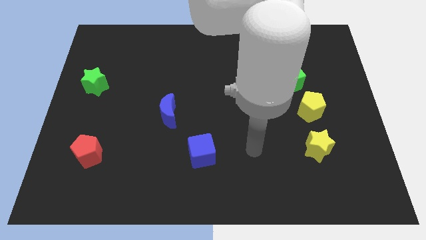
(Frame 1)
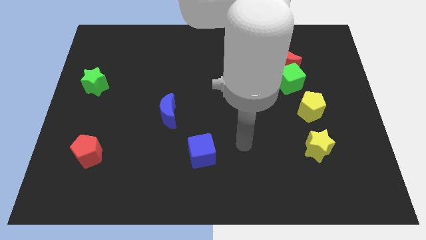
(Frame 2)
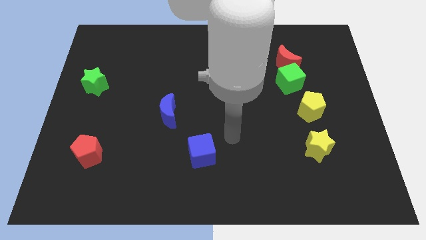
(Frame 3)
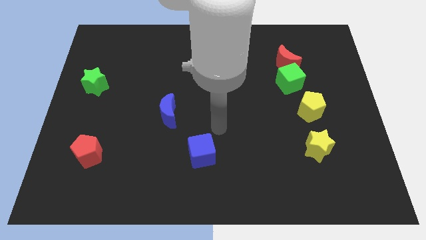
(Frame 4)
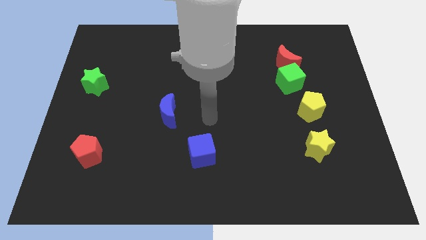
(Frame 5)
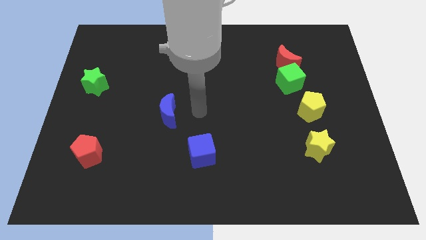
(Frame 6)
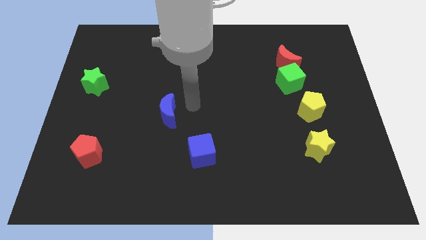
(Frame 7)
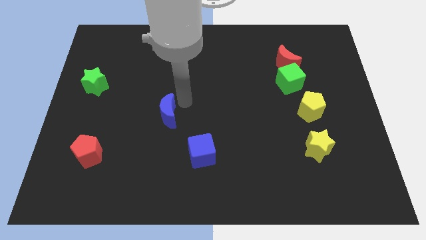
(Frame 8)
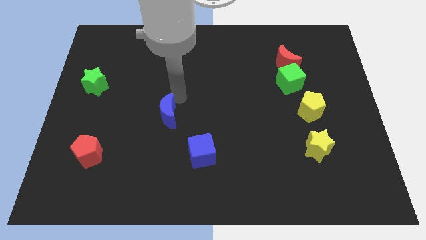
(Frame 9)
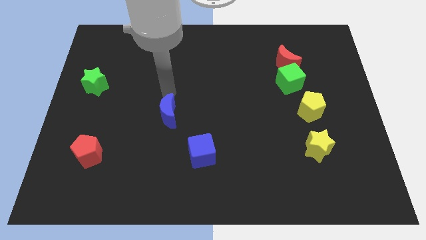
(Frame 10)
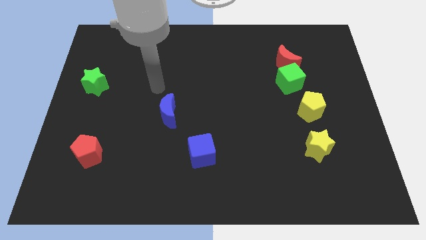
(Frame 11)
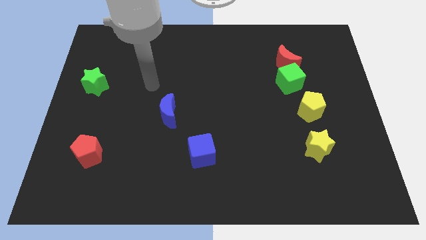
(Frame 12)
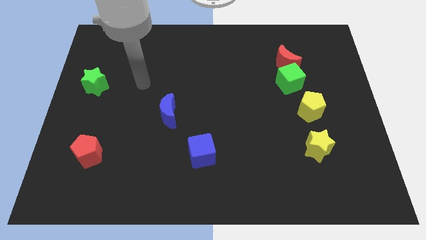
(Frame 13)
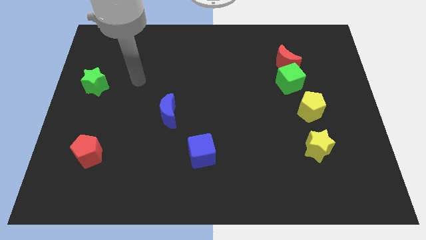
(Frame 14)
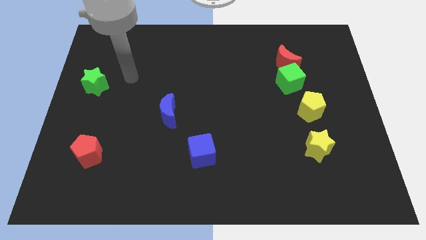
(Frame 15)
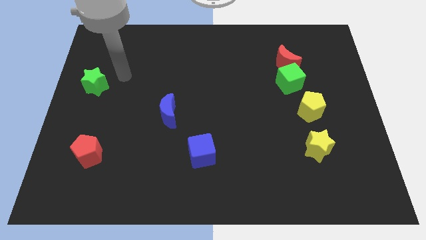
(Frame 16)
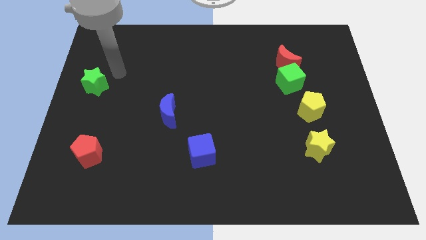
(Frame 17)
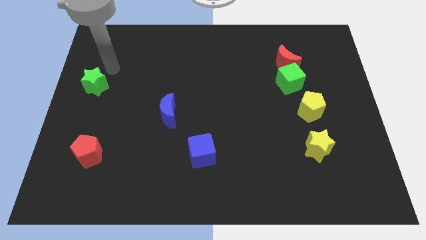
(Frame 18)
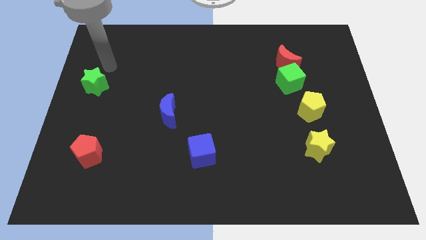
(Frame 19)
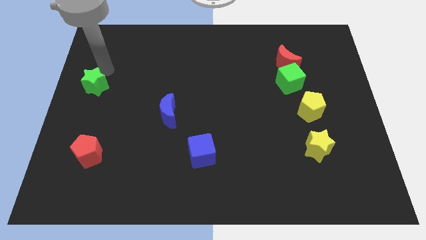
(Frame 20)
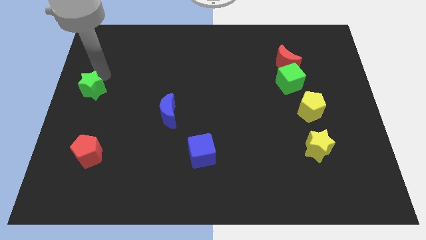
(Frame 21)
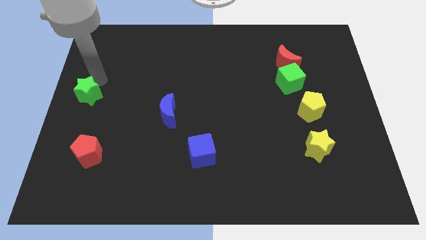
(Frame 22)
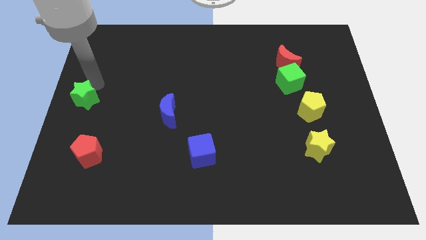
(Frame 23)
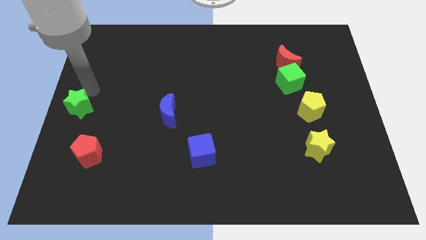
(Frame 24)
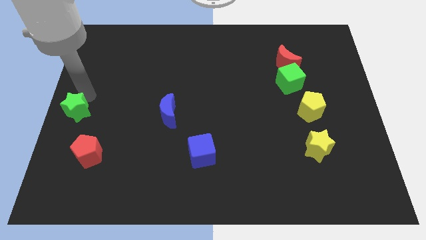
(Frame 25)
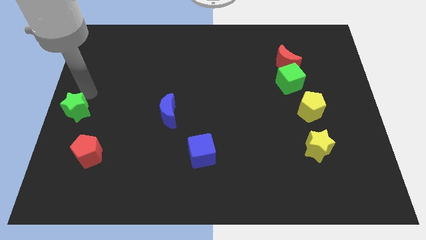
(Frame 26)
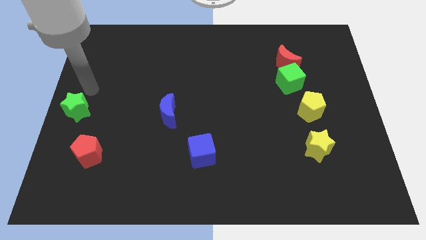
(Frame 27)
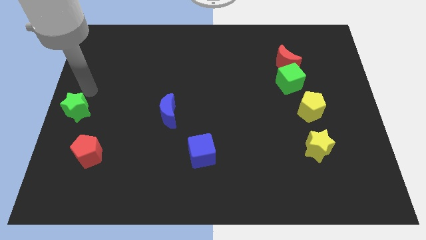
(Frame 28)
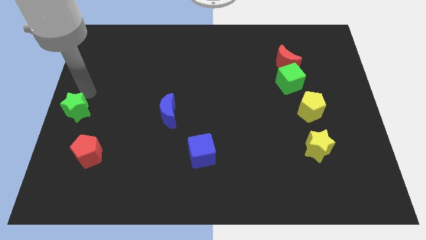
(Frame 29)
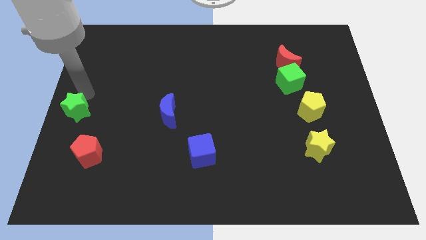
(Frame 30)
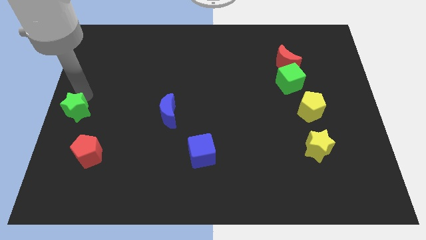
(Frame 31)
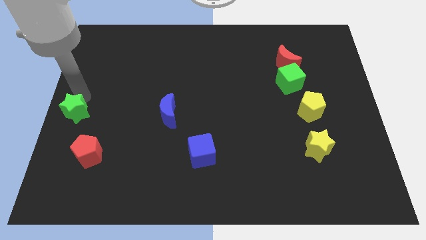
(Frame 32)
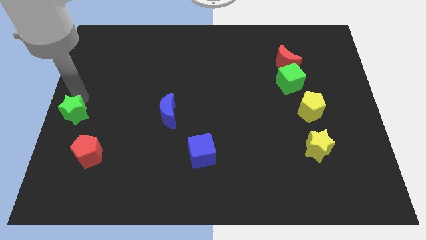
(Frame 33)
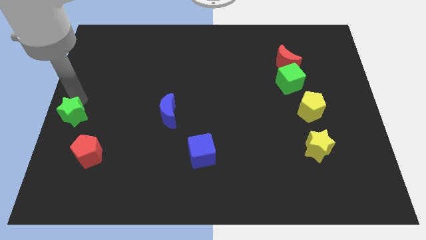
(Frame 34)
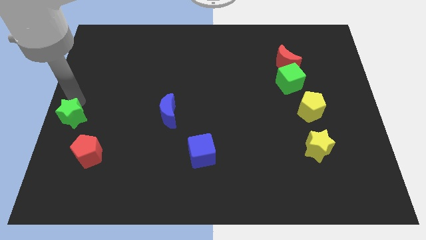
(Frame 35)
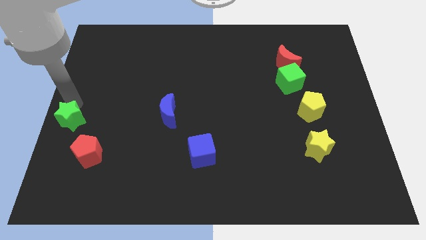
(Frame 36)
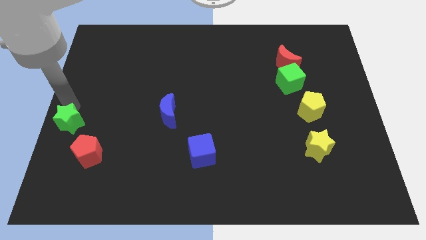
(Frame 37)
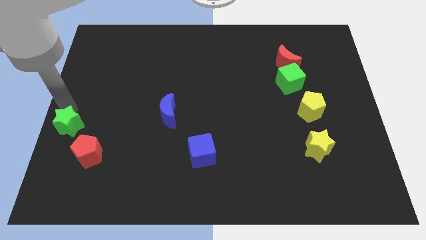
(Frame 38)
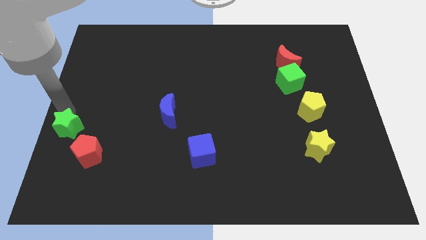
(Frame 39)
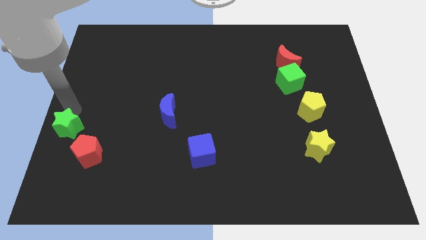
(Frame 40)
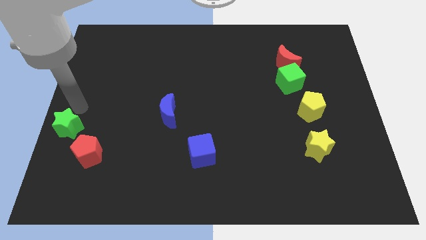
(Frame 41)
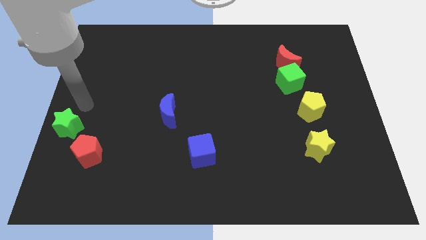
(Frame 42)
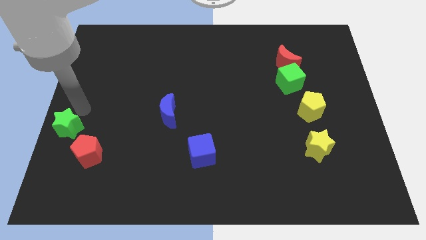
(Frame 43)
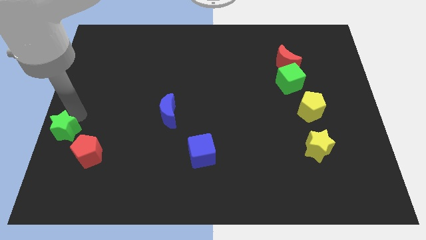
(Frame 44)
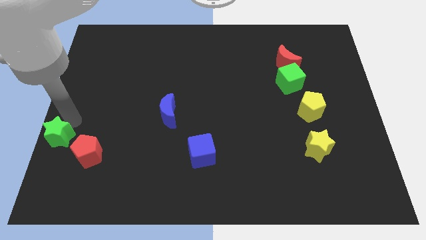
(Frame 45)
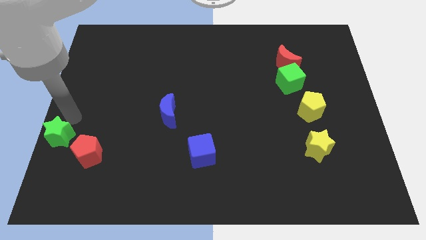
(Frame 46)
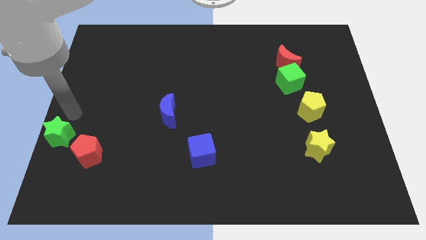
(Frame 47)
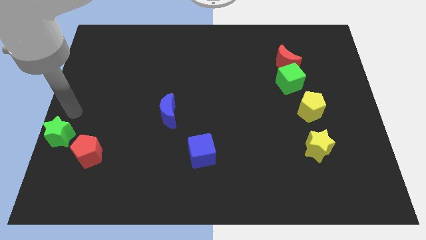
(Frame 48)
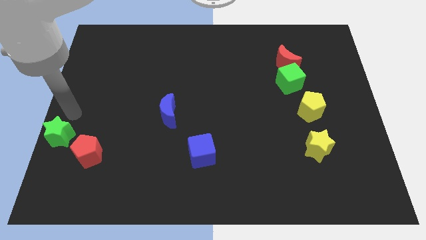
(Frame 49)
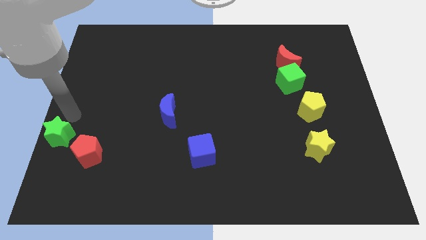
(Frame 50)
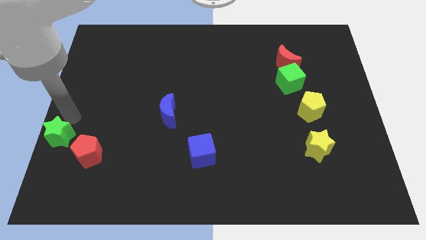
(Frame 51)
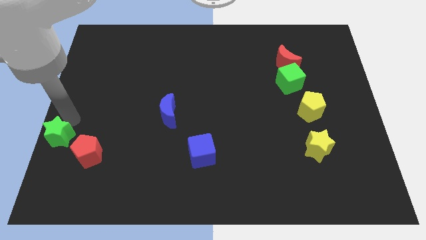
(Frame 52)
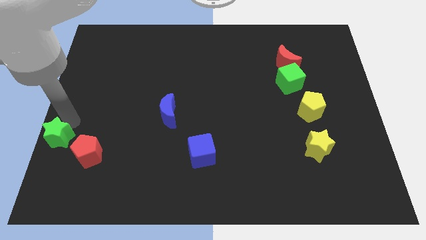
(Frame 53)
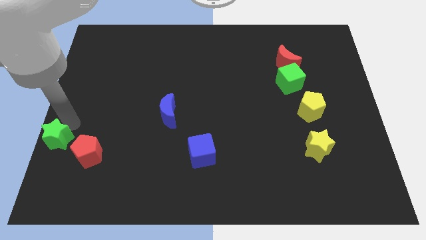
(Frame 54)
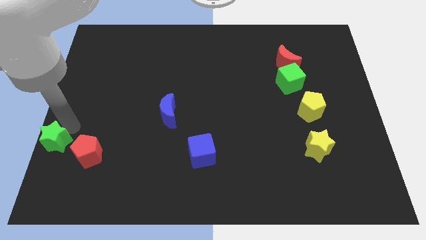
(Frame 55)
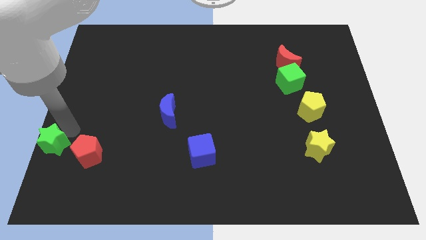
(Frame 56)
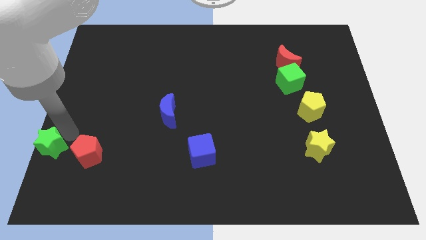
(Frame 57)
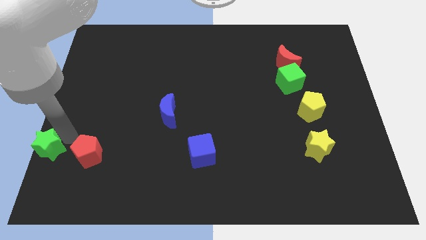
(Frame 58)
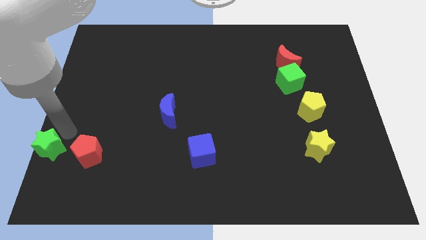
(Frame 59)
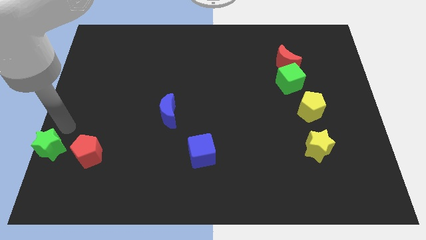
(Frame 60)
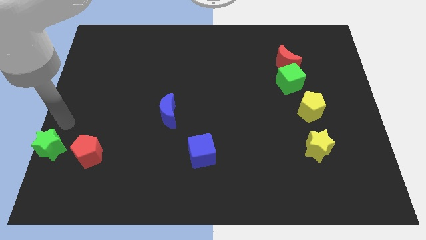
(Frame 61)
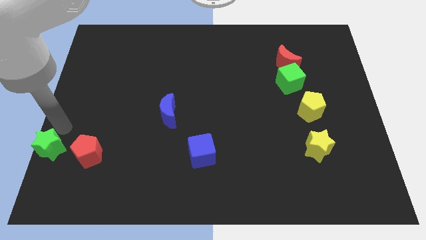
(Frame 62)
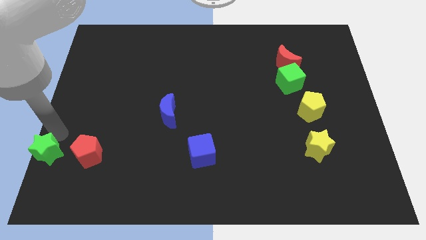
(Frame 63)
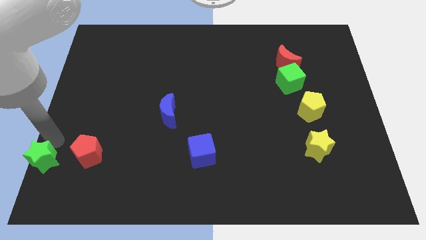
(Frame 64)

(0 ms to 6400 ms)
put the green star to the bottom left corner

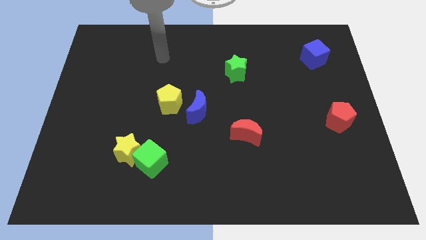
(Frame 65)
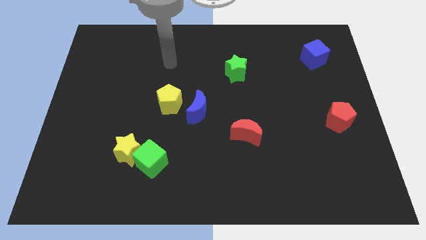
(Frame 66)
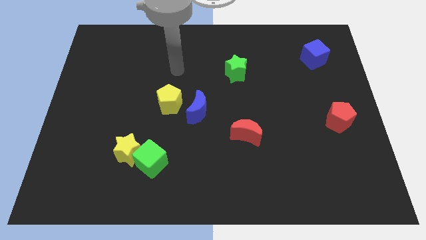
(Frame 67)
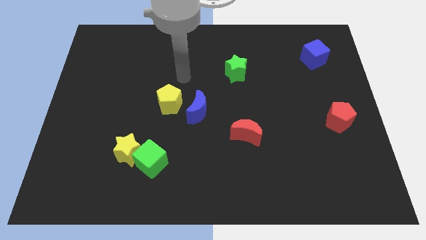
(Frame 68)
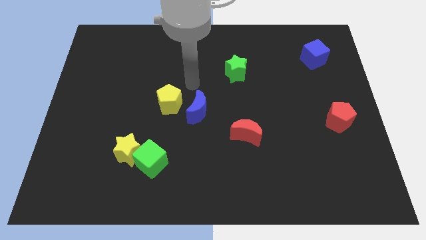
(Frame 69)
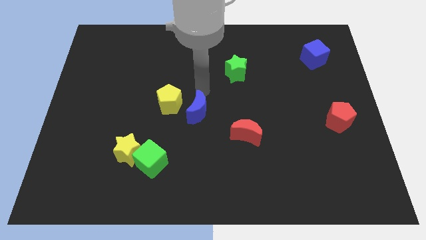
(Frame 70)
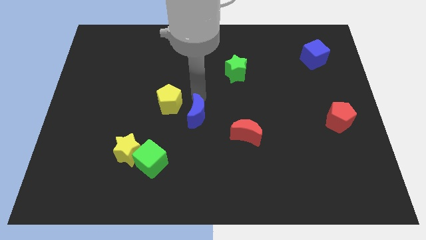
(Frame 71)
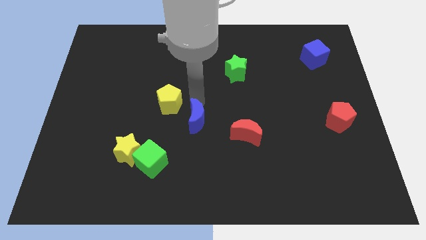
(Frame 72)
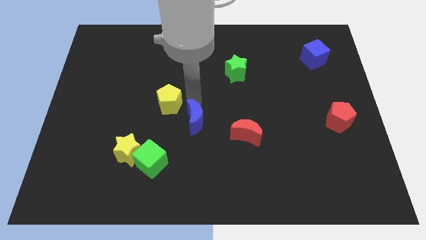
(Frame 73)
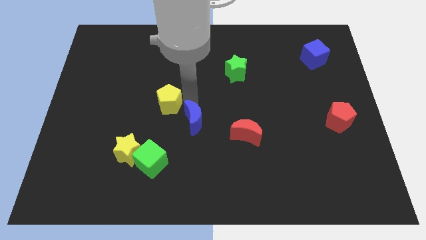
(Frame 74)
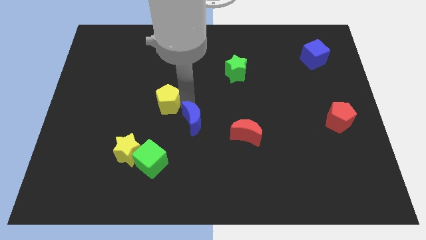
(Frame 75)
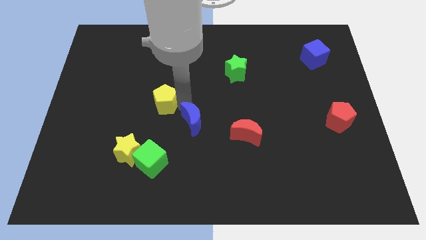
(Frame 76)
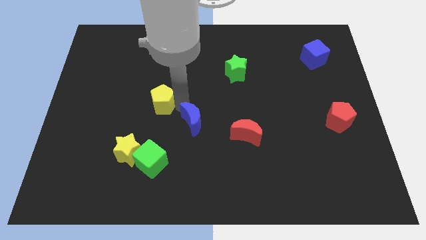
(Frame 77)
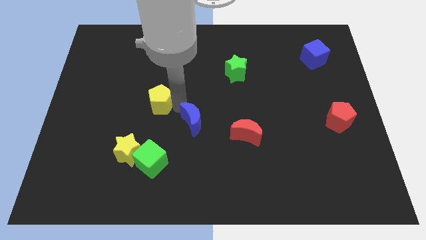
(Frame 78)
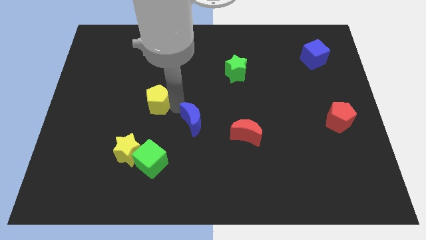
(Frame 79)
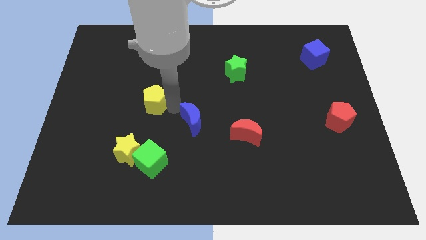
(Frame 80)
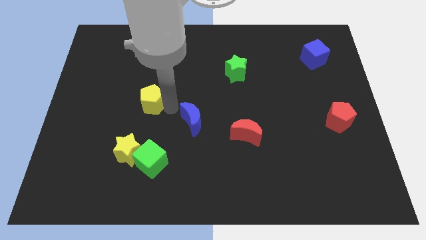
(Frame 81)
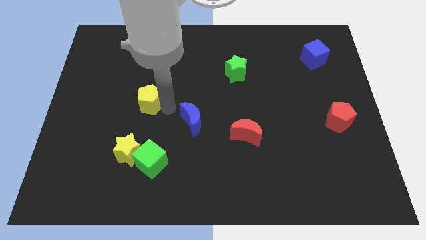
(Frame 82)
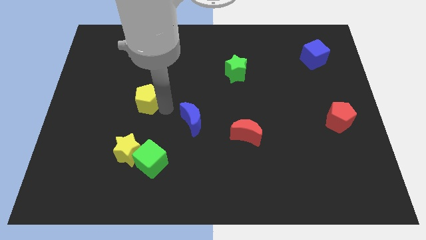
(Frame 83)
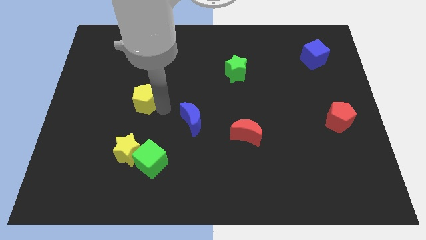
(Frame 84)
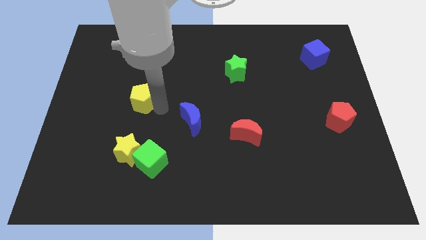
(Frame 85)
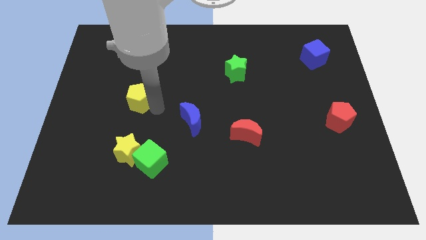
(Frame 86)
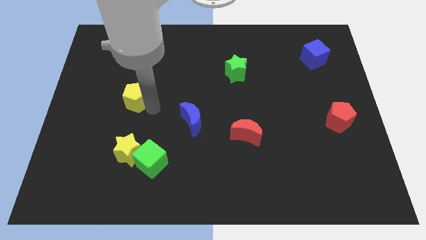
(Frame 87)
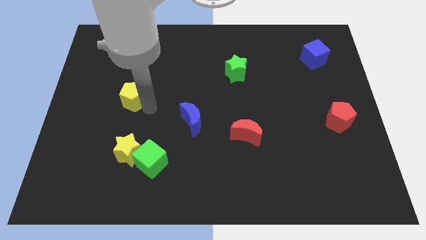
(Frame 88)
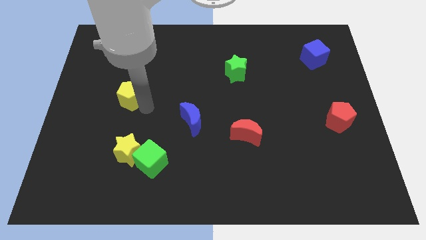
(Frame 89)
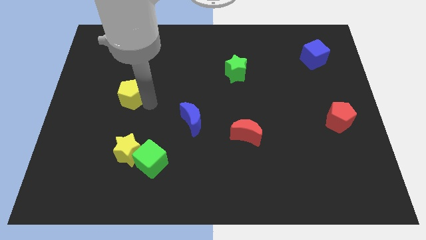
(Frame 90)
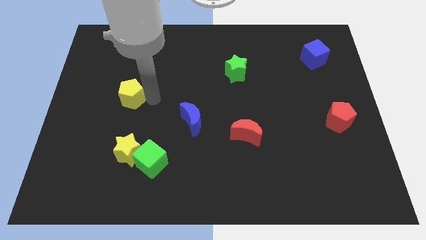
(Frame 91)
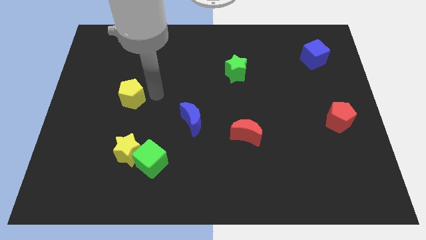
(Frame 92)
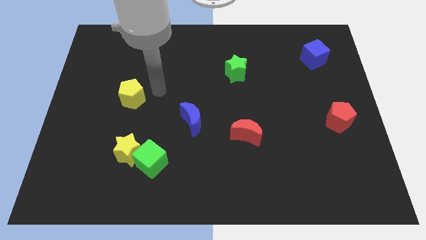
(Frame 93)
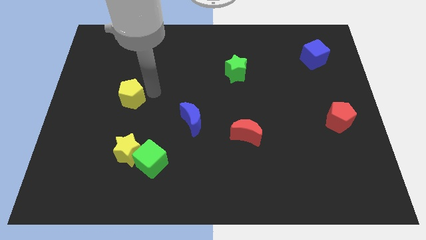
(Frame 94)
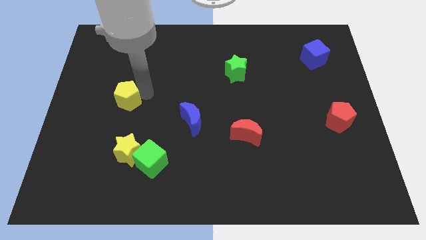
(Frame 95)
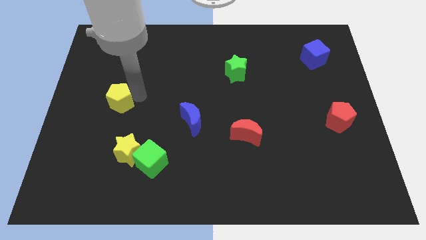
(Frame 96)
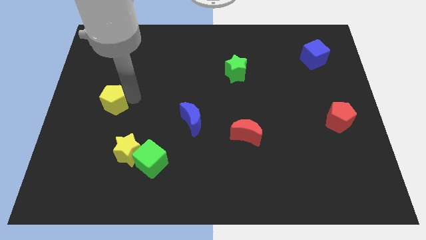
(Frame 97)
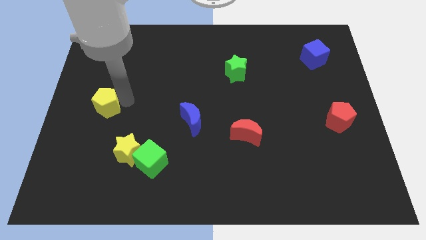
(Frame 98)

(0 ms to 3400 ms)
put the yellow pentagon to the center left
